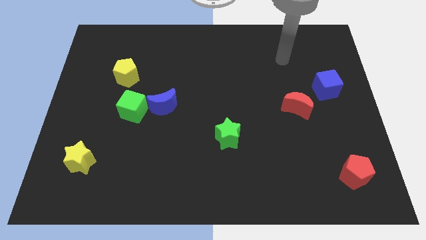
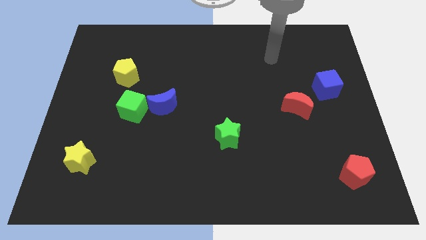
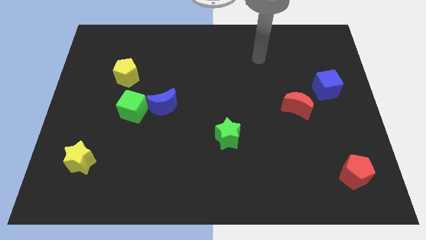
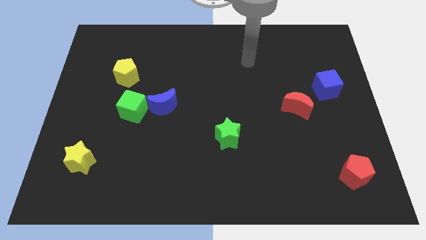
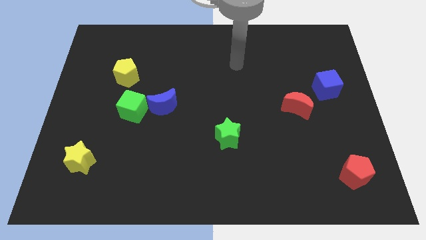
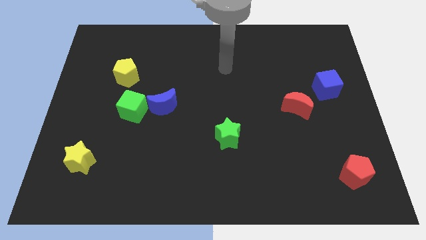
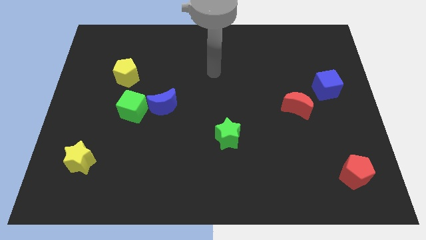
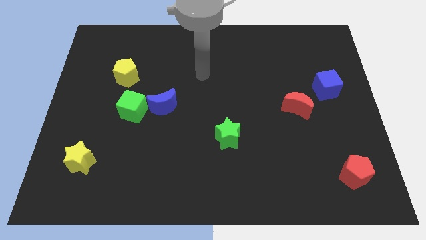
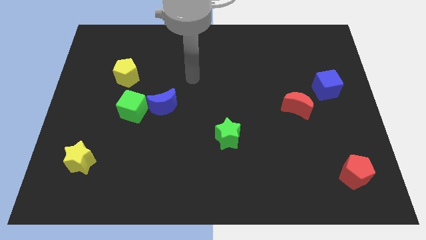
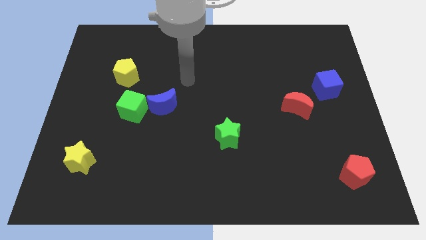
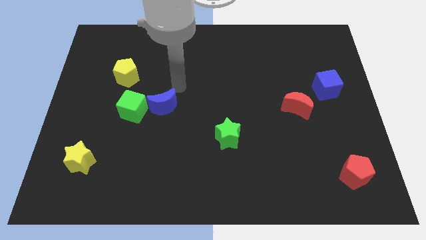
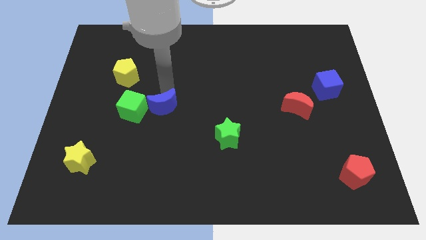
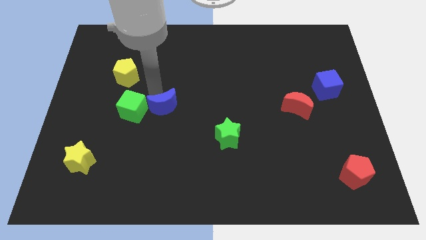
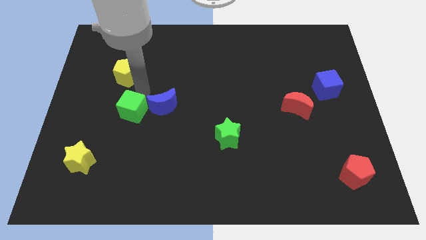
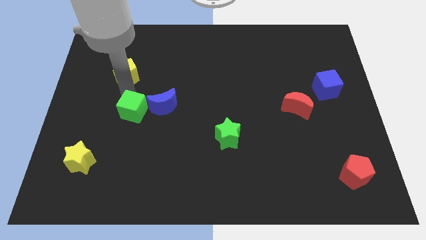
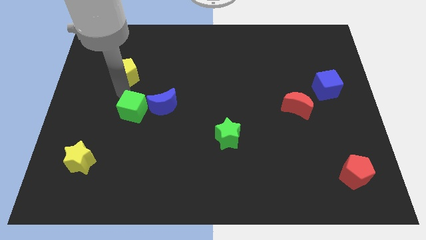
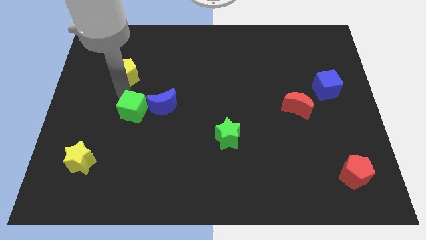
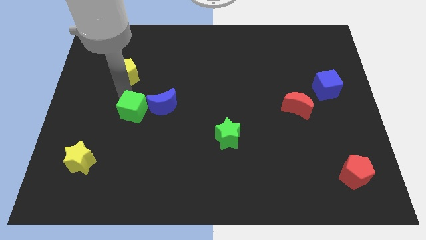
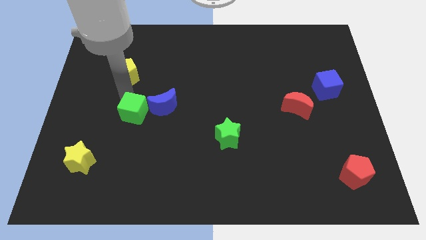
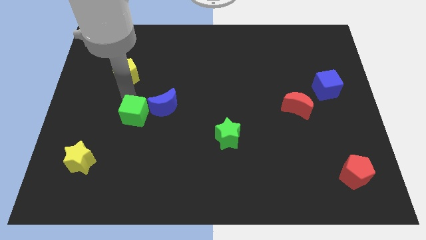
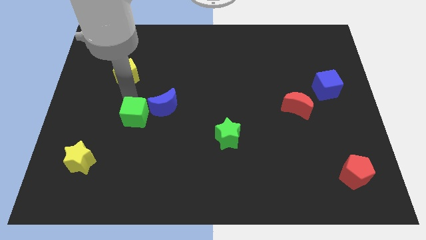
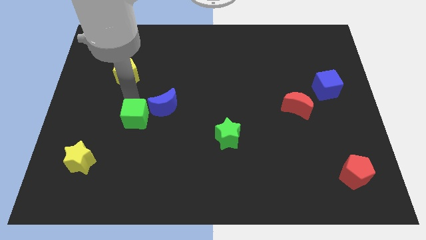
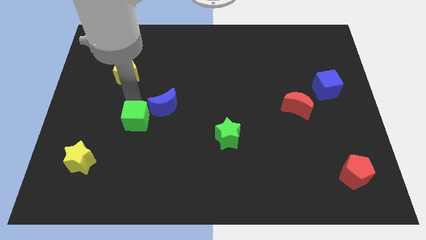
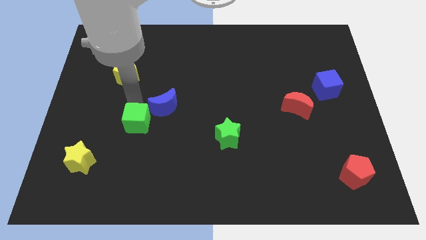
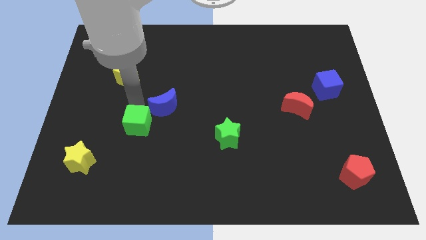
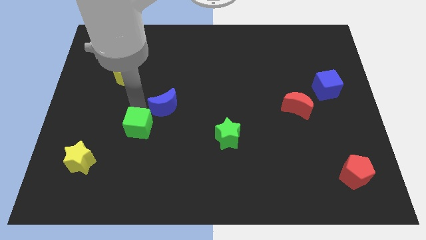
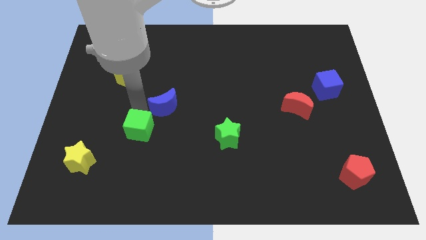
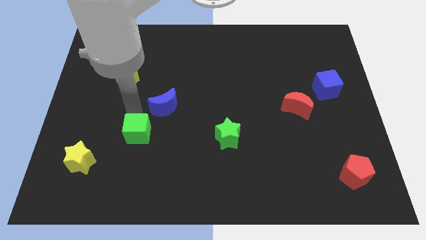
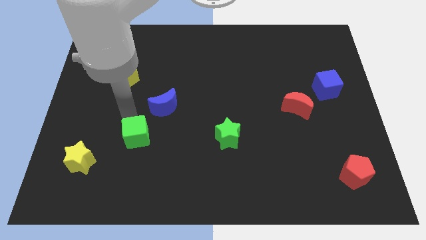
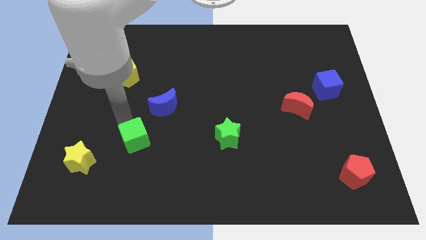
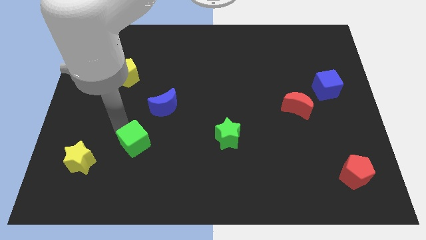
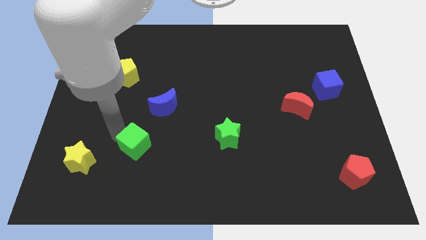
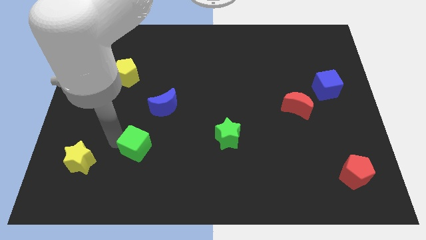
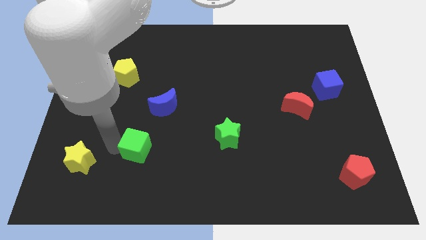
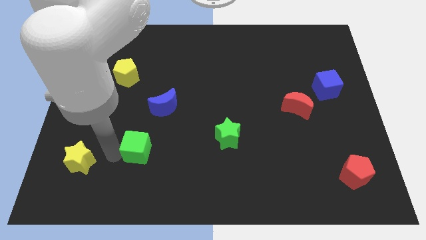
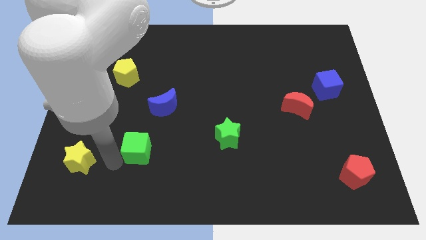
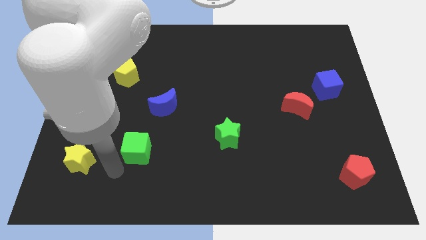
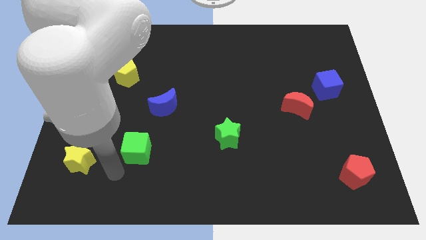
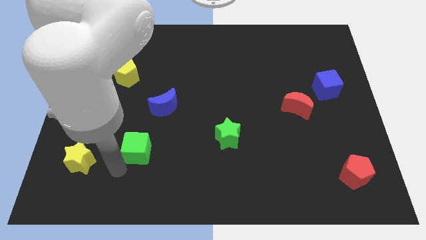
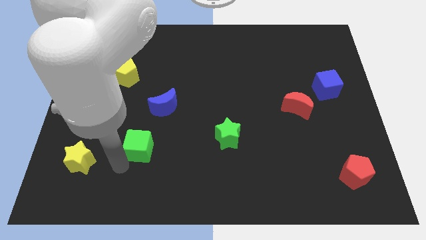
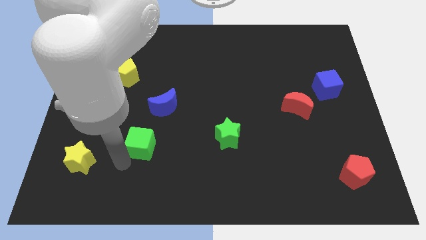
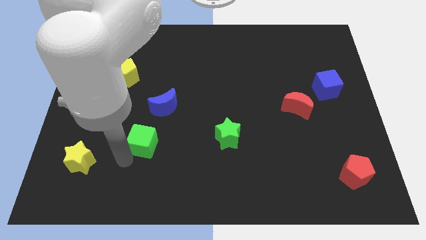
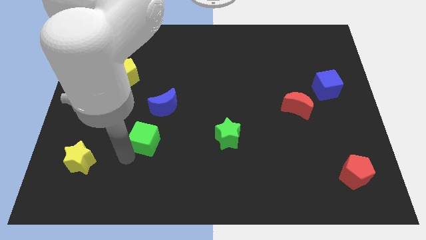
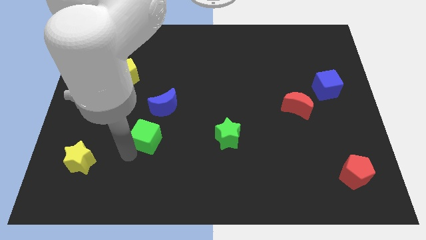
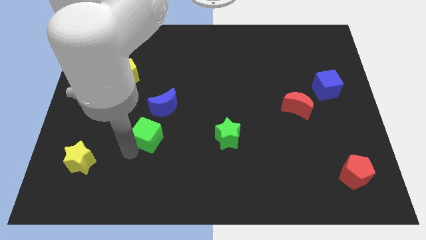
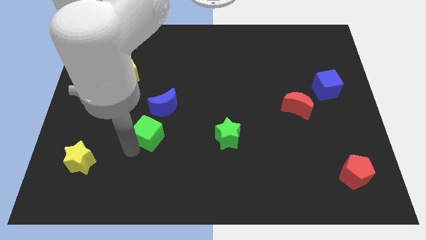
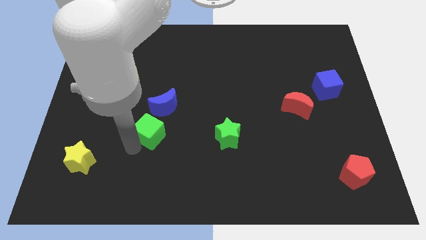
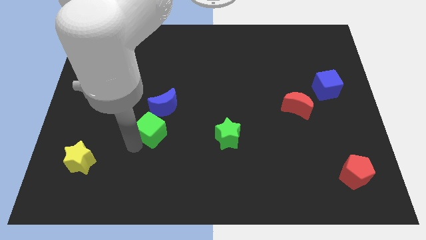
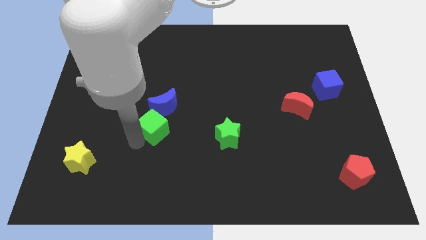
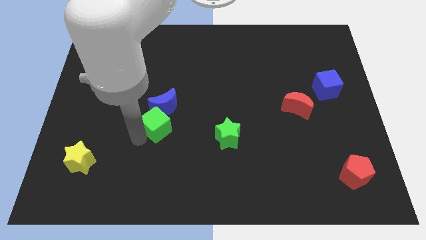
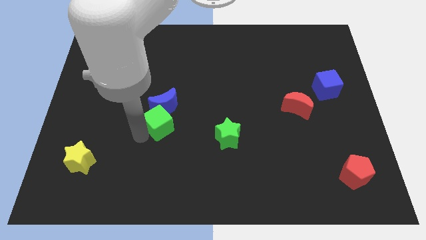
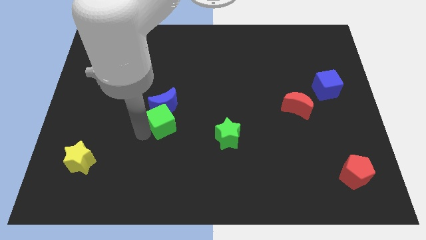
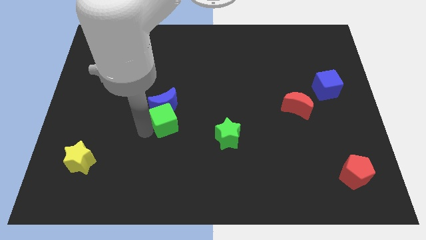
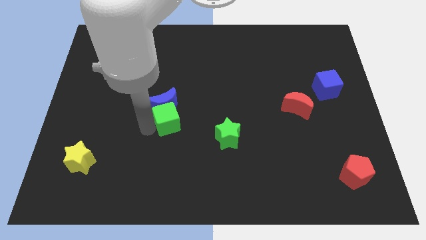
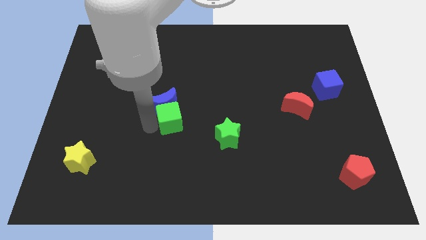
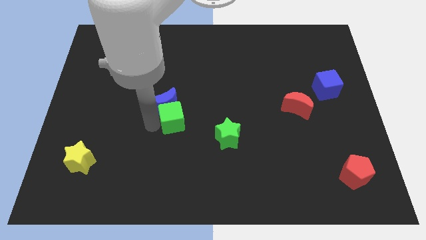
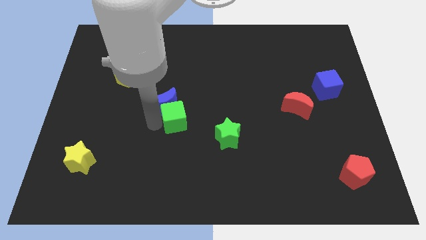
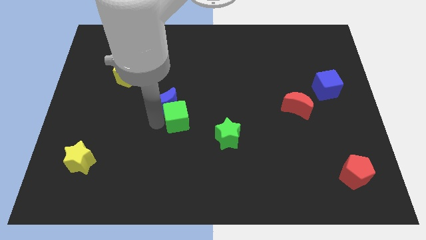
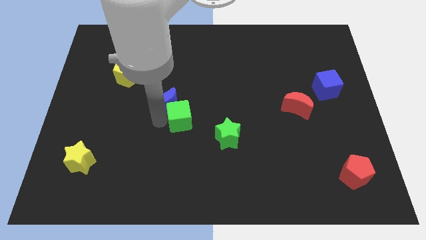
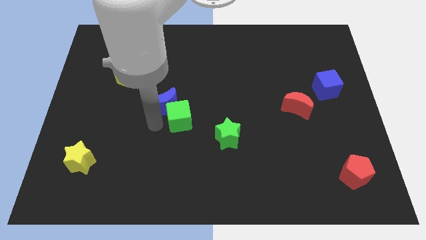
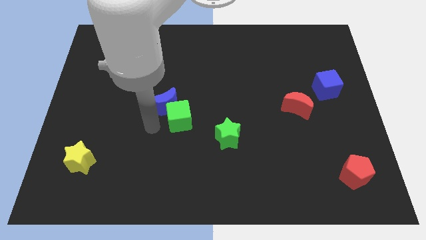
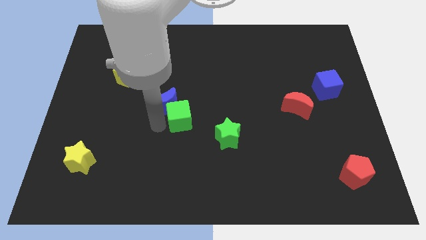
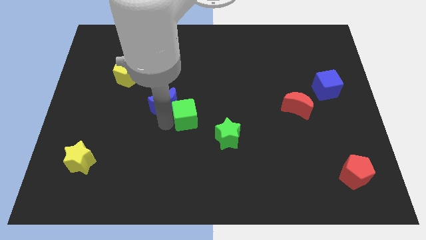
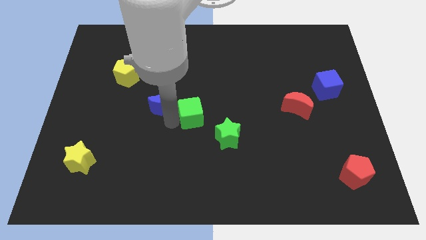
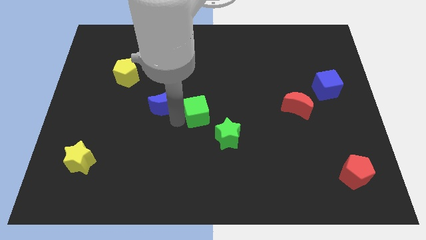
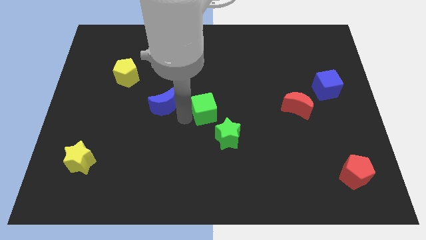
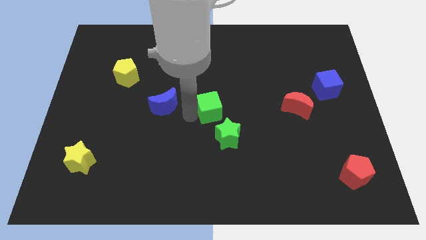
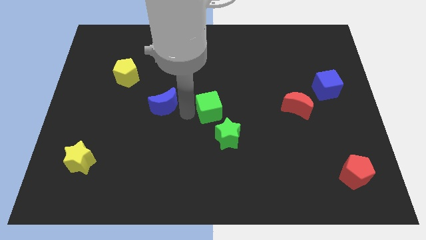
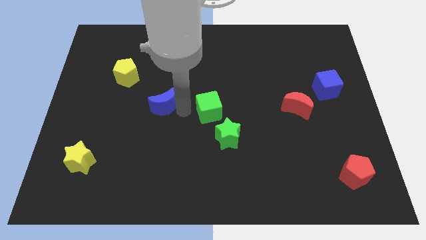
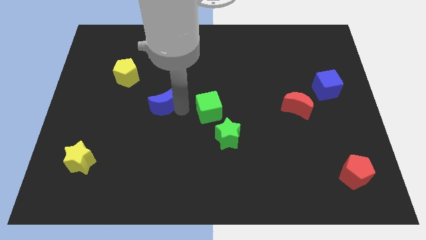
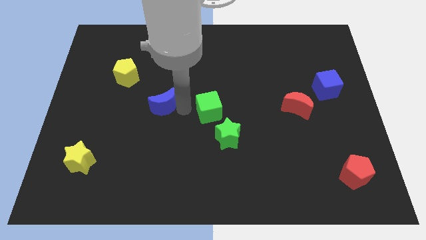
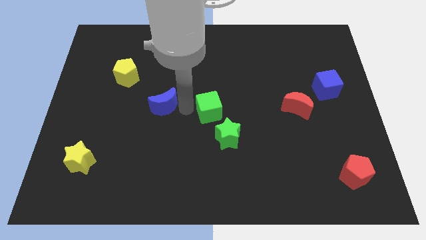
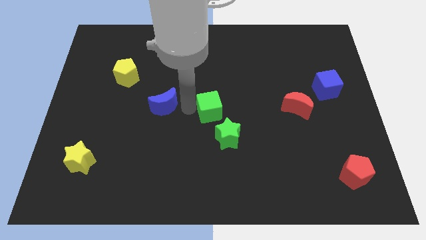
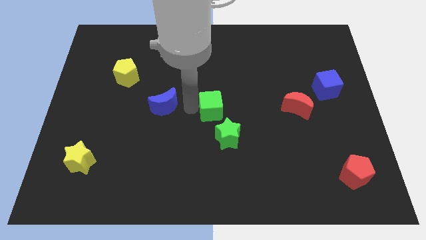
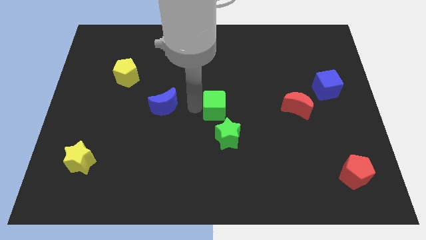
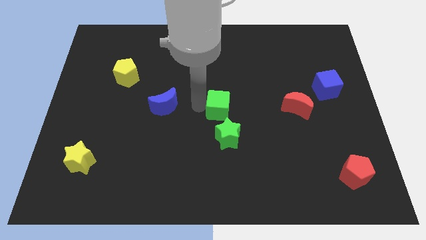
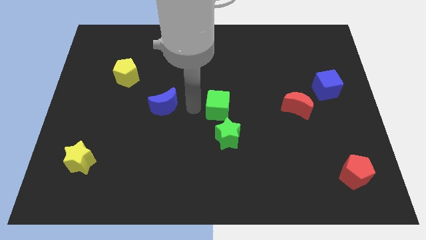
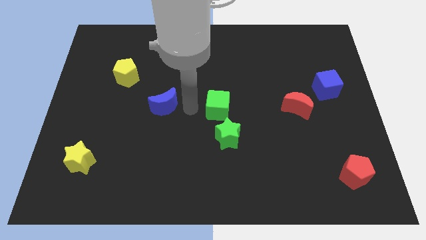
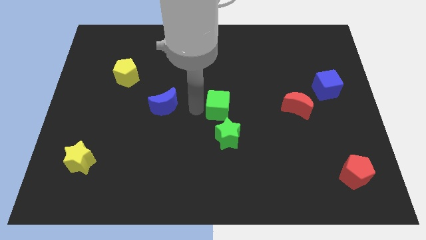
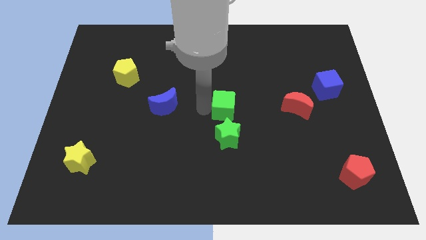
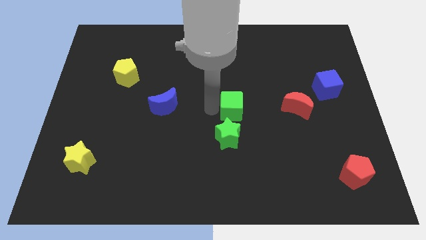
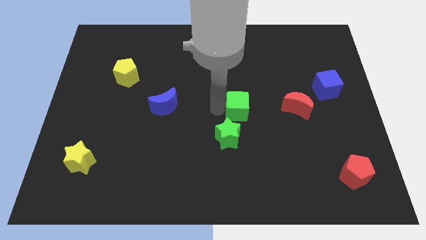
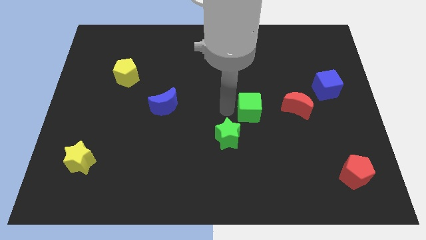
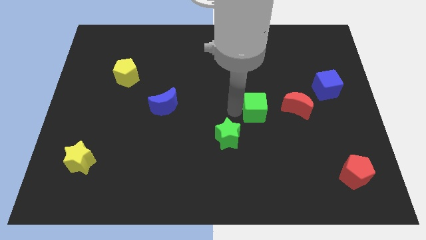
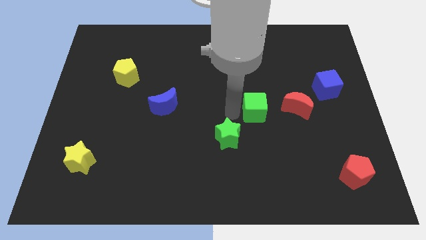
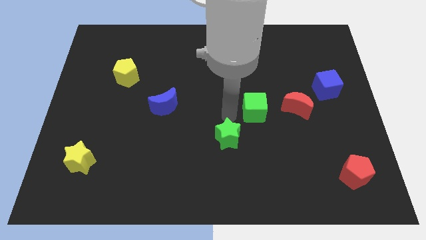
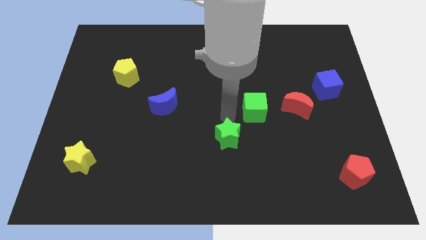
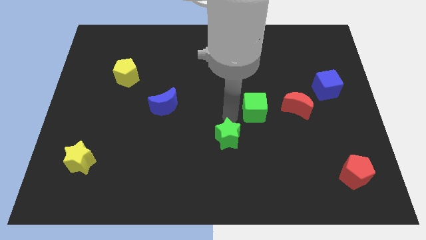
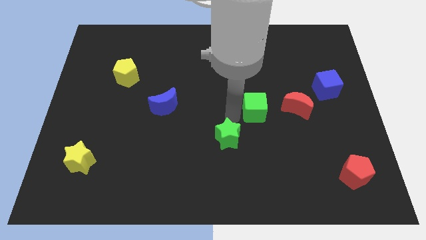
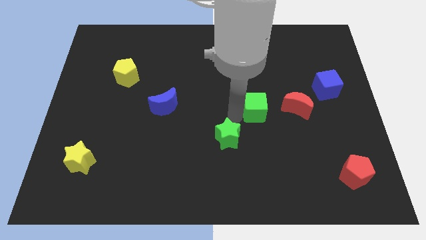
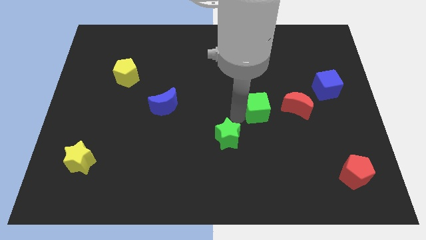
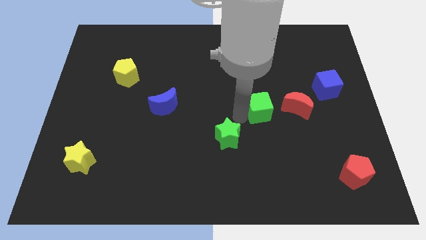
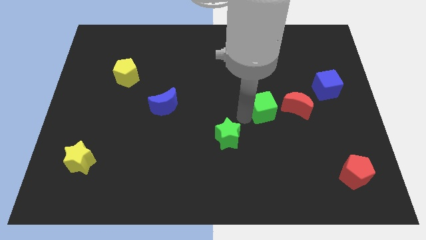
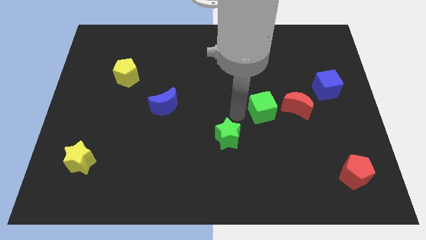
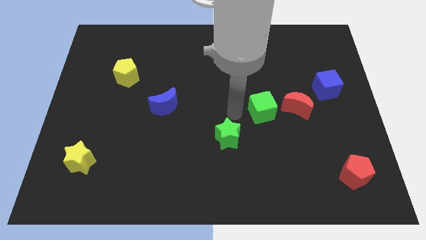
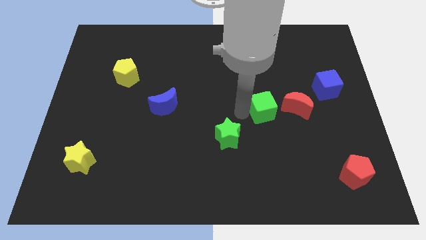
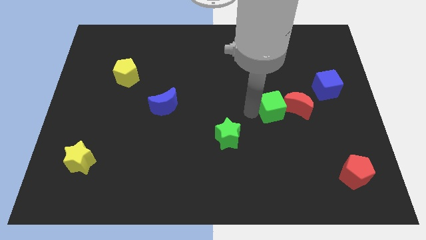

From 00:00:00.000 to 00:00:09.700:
put the green cube close to the red moon
